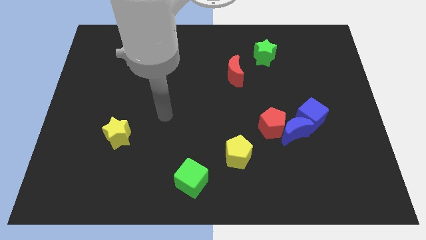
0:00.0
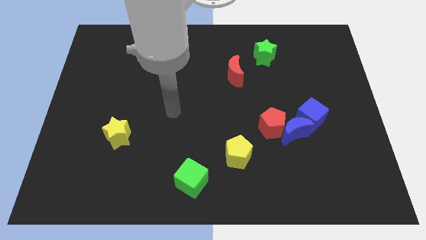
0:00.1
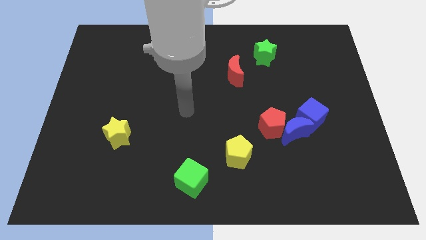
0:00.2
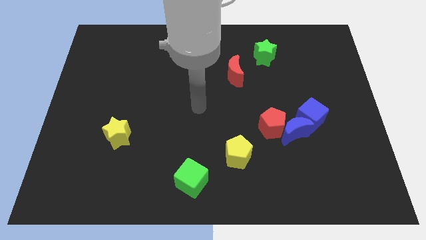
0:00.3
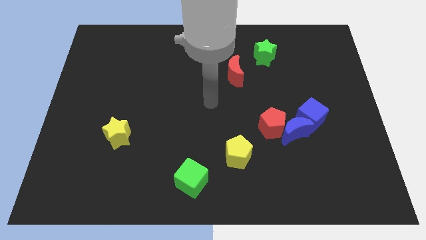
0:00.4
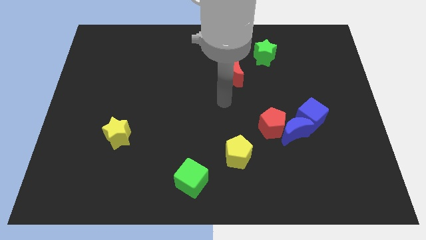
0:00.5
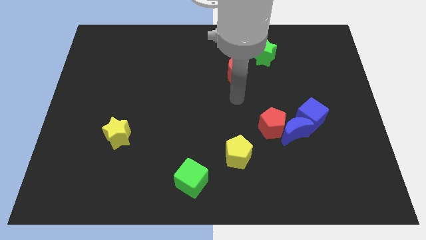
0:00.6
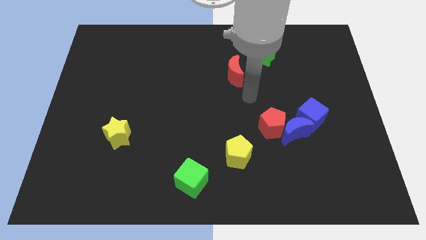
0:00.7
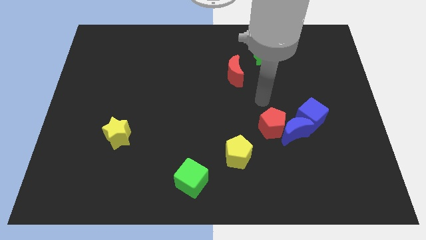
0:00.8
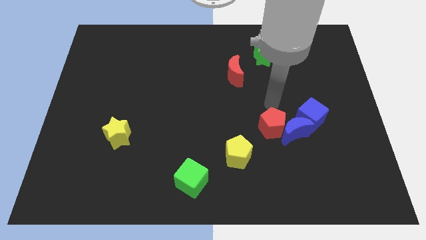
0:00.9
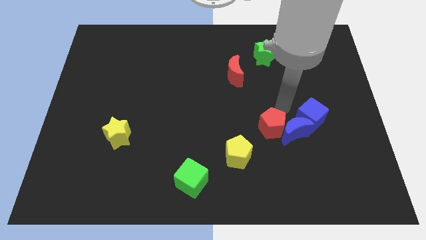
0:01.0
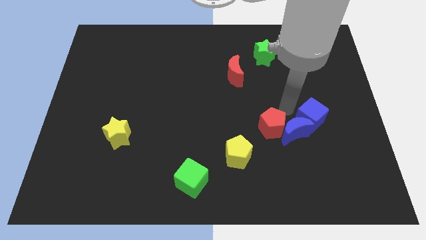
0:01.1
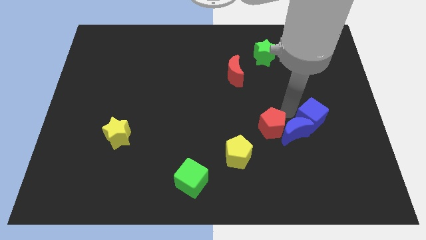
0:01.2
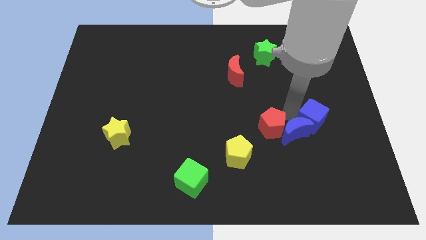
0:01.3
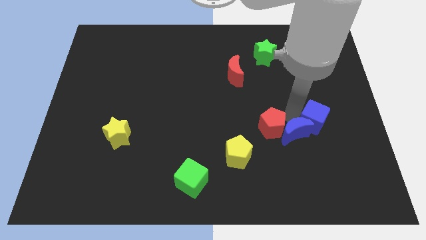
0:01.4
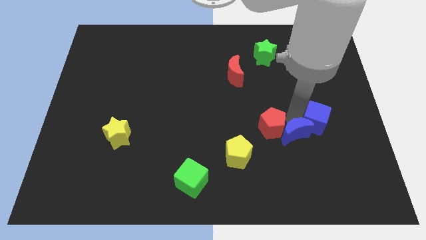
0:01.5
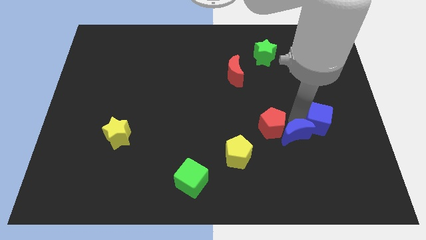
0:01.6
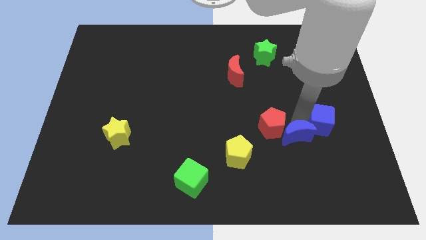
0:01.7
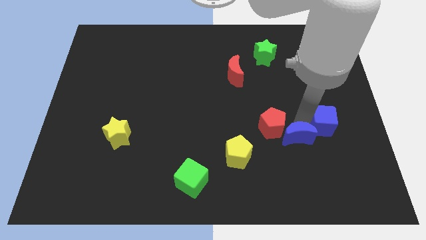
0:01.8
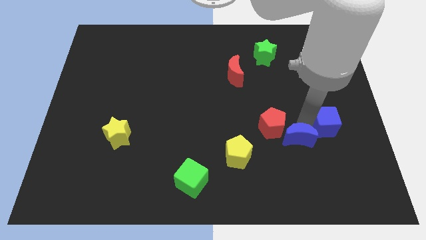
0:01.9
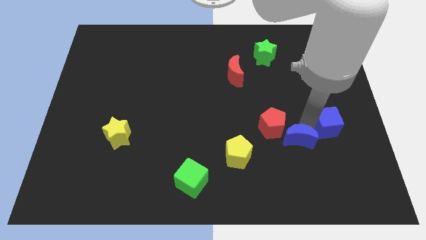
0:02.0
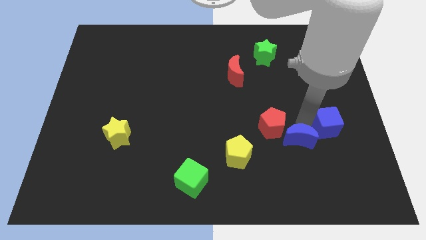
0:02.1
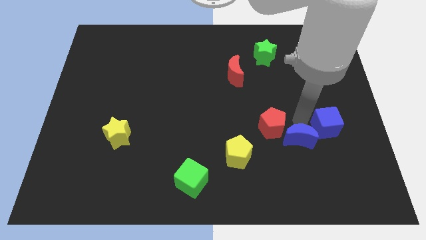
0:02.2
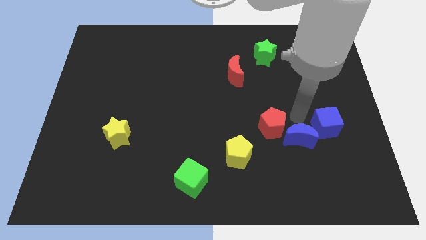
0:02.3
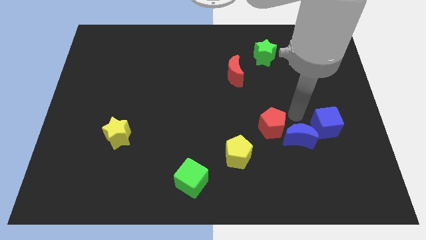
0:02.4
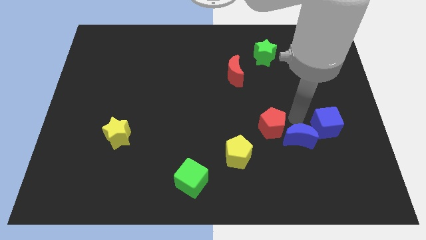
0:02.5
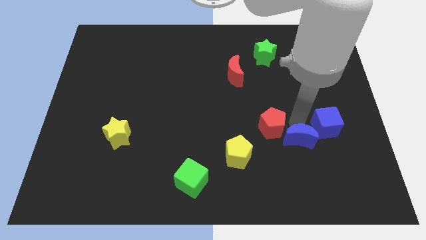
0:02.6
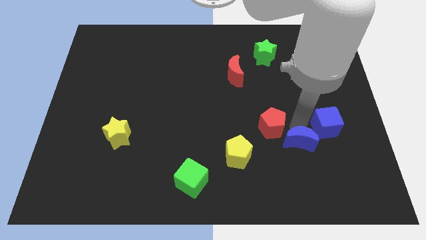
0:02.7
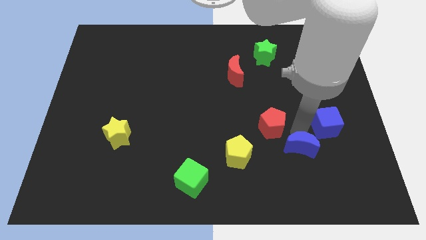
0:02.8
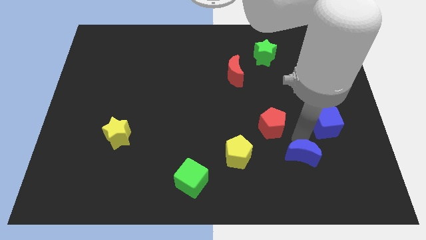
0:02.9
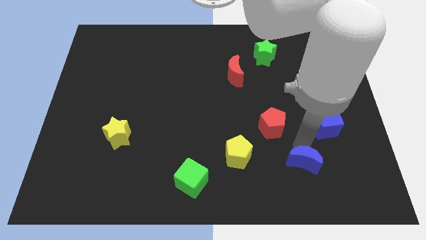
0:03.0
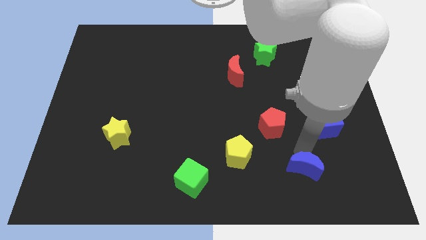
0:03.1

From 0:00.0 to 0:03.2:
pull the blue moon apart from the red pentagon and blue cube

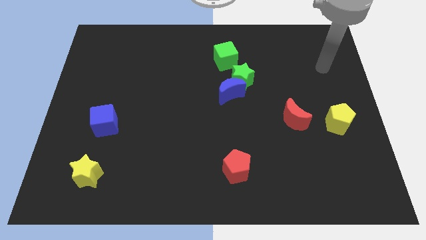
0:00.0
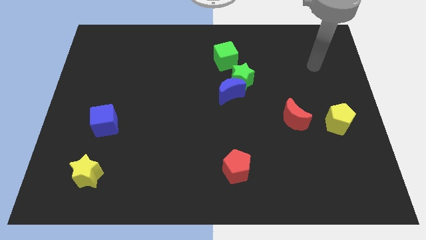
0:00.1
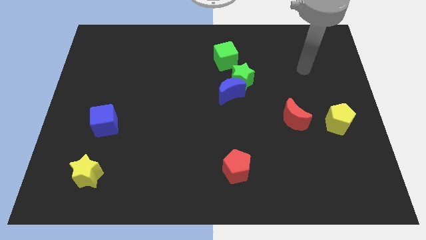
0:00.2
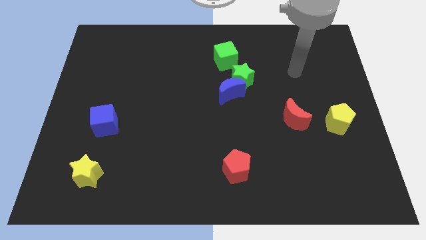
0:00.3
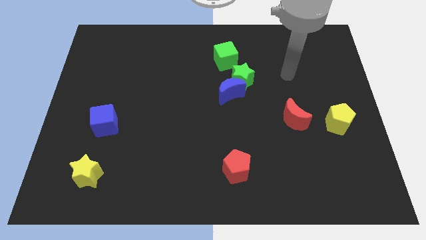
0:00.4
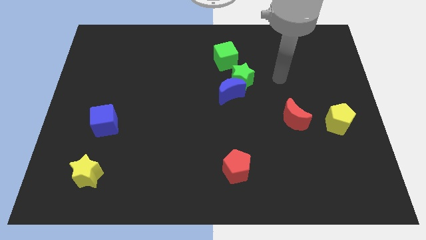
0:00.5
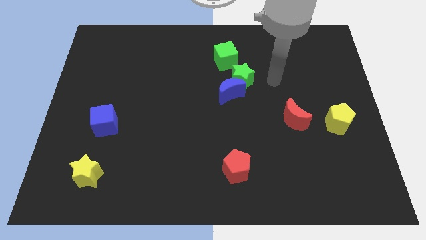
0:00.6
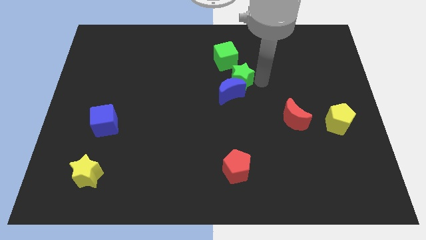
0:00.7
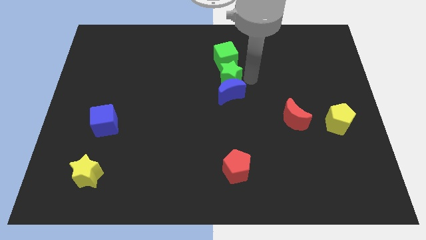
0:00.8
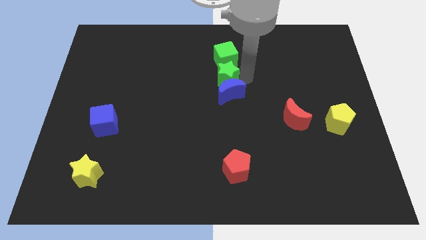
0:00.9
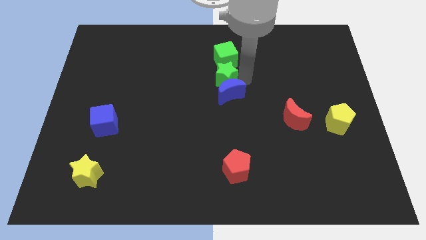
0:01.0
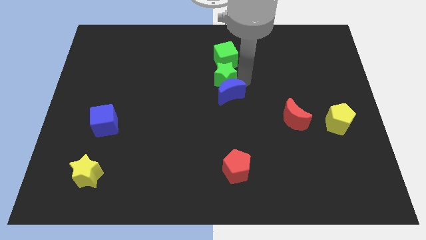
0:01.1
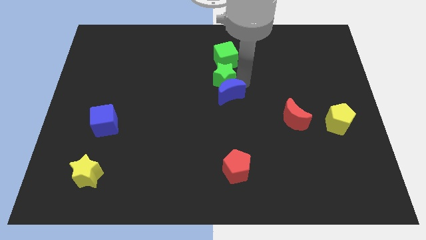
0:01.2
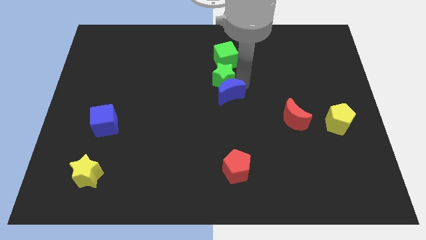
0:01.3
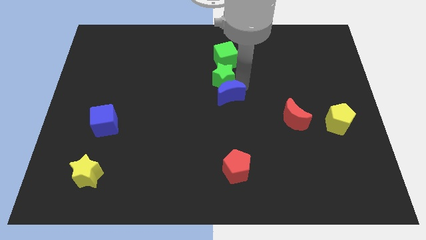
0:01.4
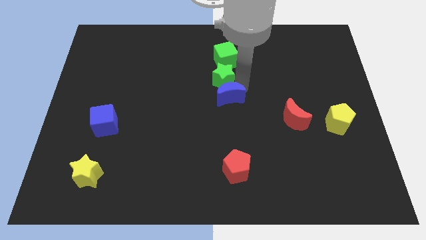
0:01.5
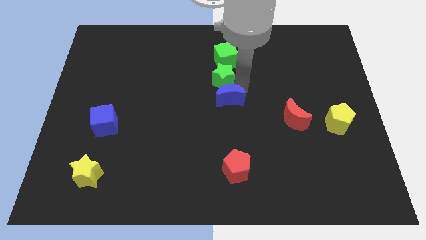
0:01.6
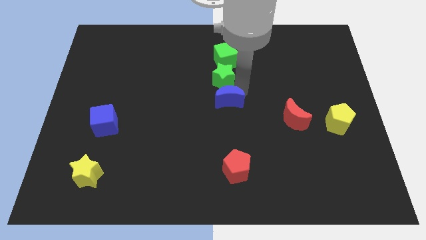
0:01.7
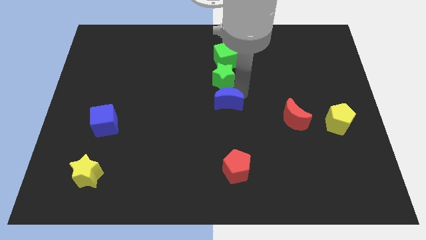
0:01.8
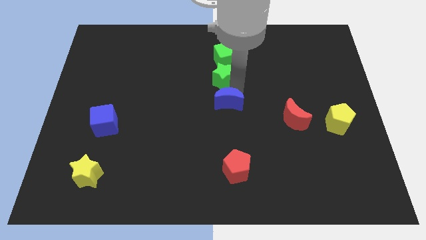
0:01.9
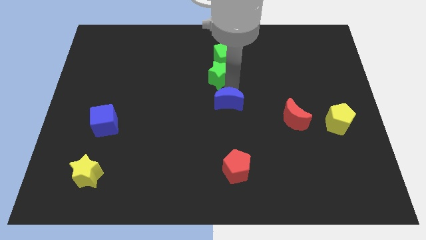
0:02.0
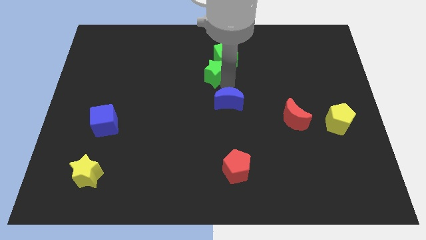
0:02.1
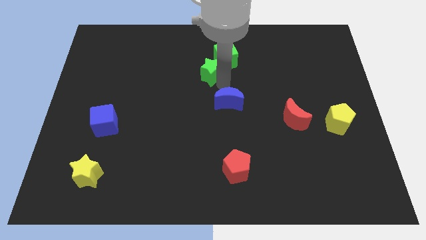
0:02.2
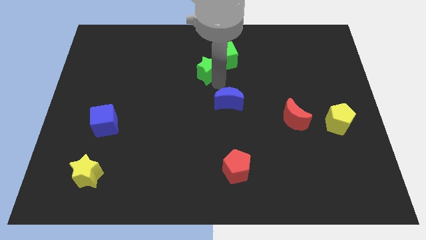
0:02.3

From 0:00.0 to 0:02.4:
separate the blue moon from the green star

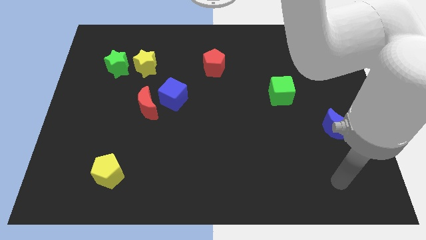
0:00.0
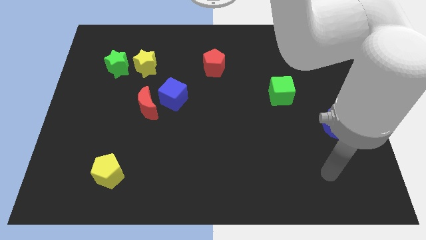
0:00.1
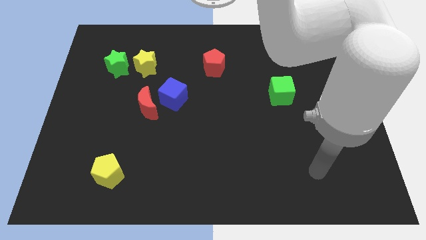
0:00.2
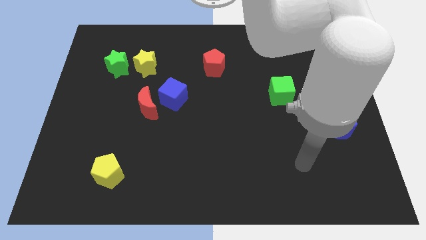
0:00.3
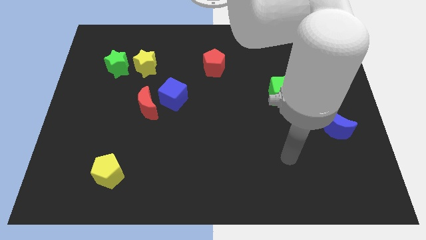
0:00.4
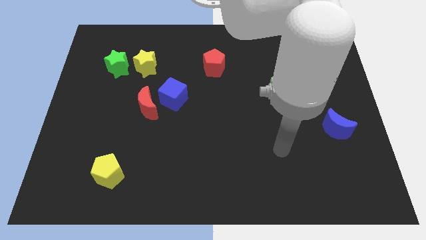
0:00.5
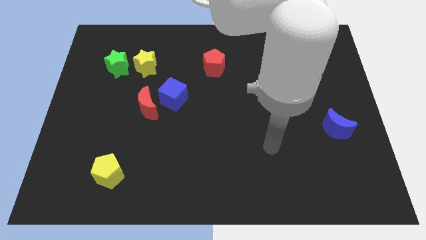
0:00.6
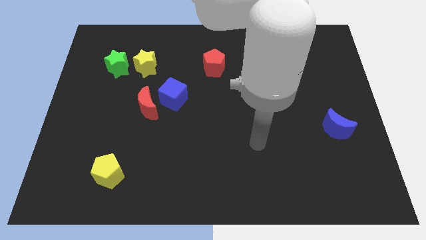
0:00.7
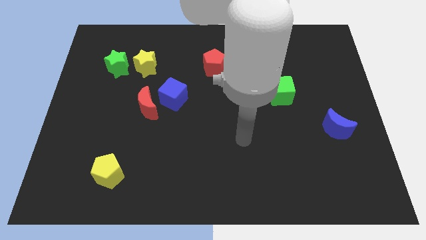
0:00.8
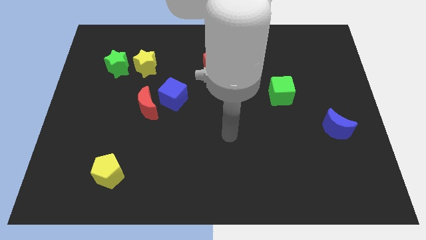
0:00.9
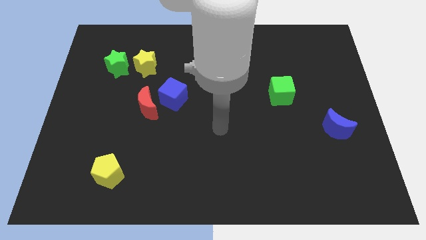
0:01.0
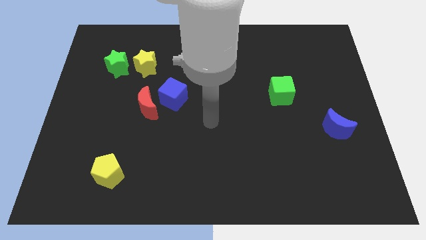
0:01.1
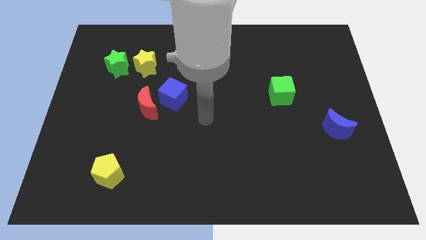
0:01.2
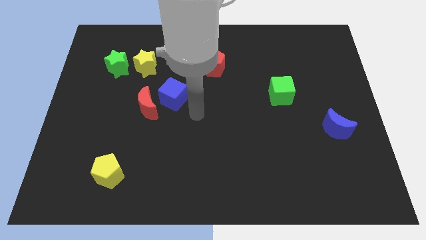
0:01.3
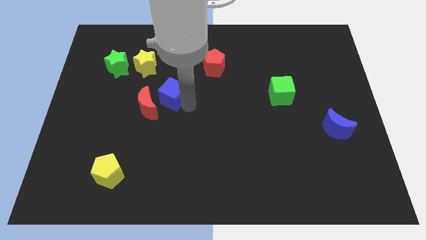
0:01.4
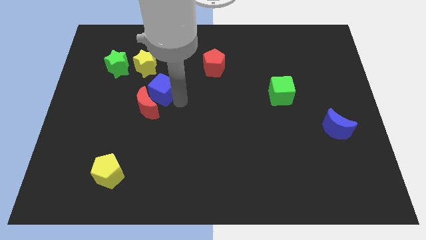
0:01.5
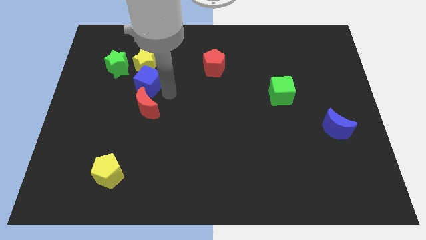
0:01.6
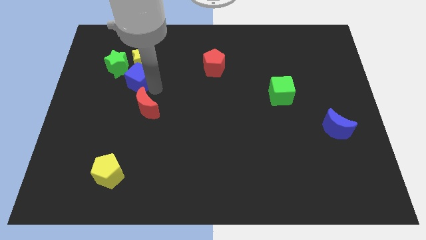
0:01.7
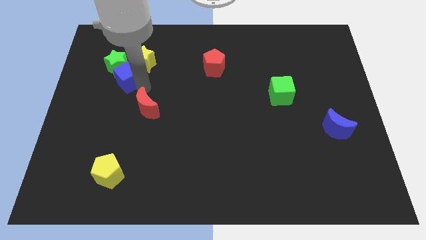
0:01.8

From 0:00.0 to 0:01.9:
pull the red moon apart from the blue cube

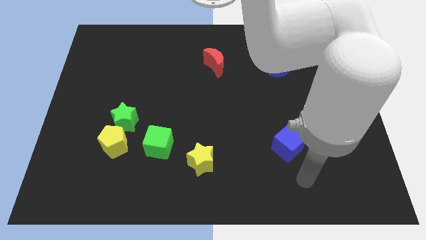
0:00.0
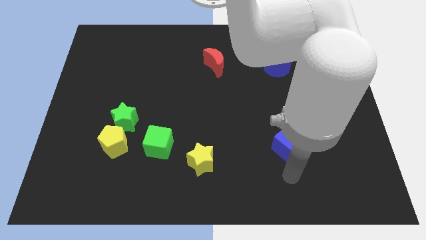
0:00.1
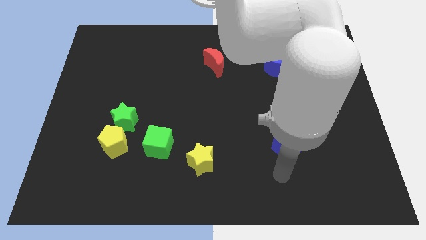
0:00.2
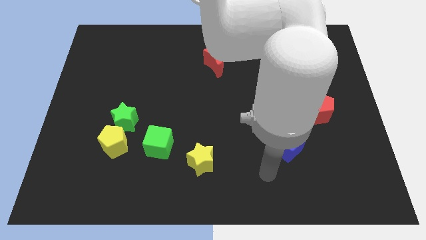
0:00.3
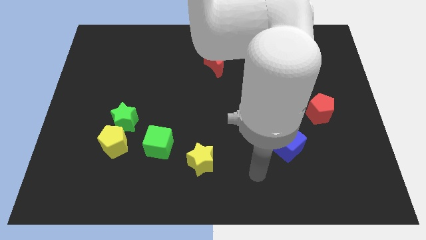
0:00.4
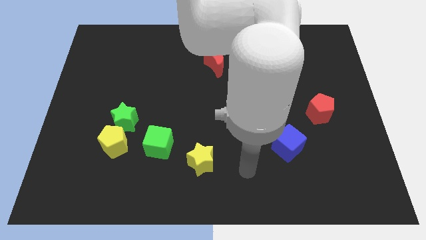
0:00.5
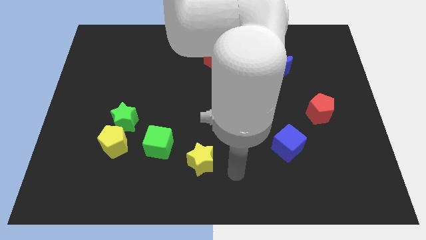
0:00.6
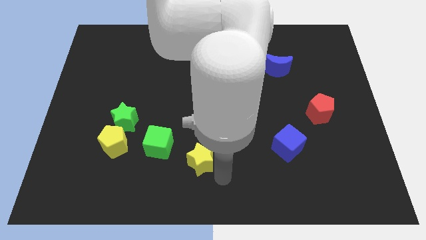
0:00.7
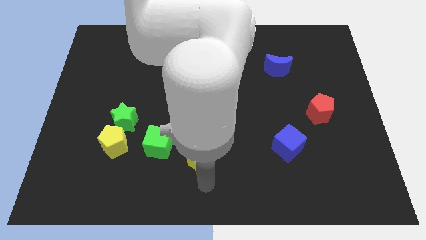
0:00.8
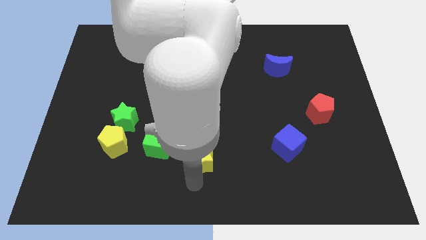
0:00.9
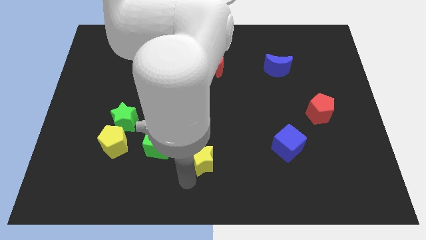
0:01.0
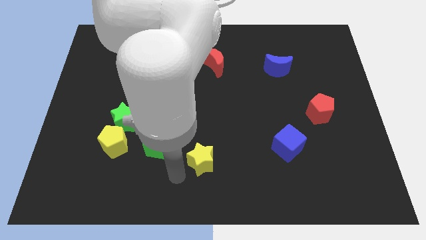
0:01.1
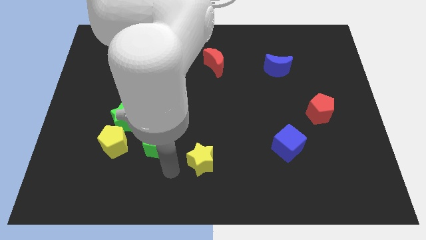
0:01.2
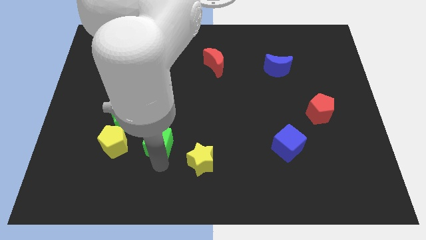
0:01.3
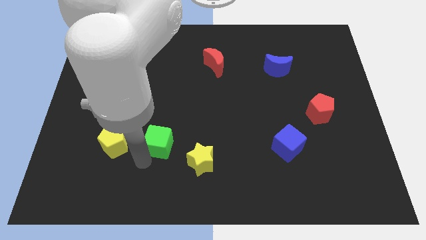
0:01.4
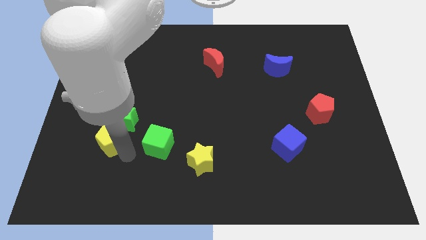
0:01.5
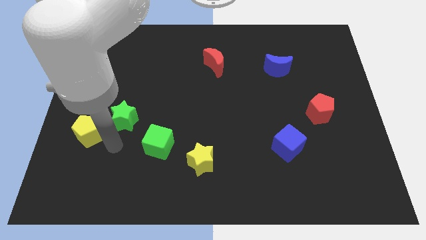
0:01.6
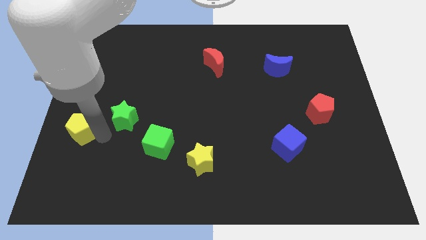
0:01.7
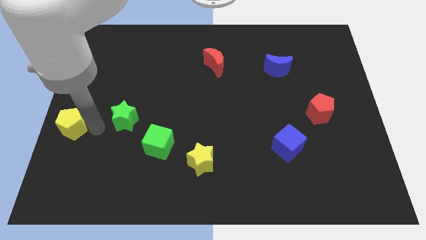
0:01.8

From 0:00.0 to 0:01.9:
separate the green star from the yellow pentagon
